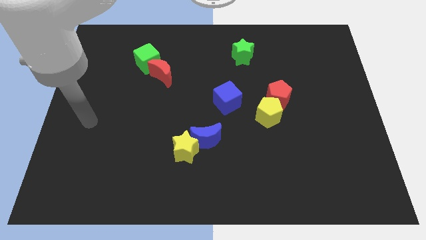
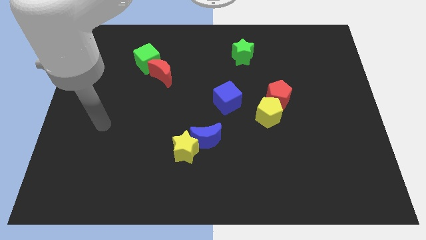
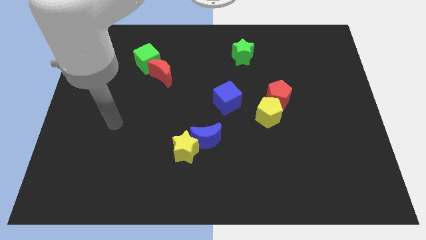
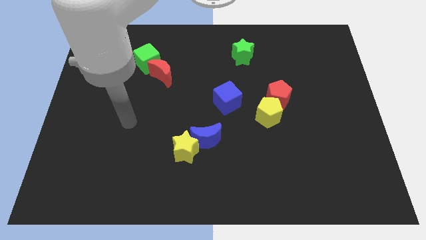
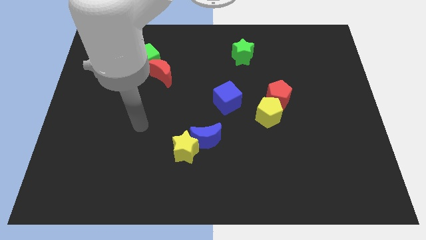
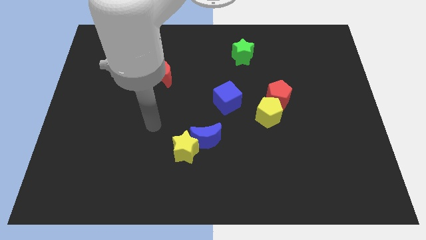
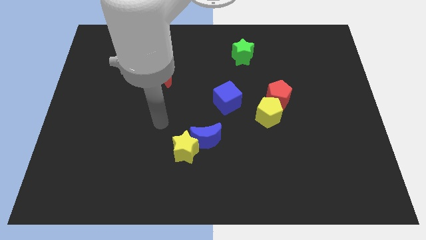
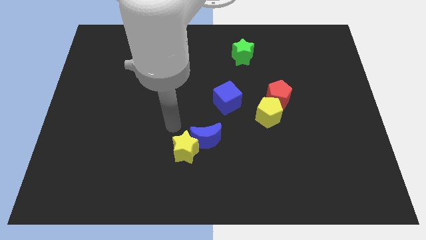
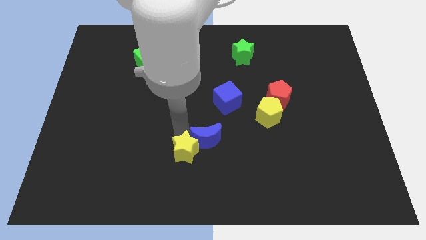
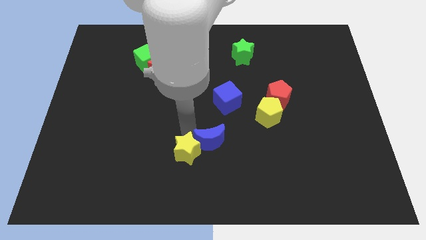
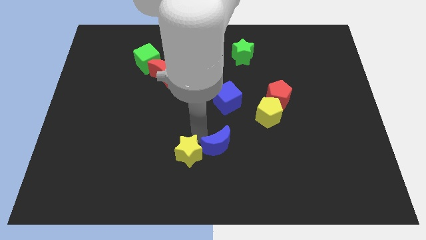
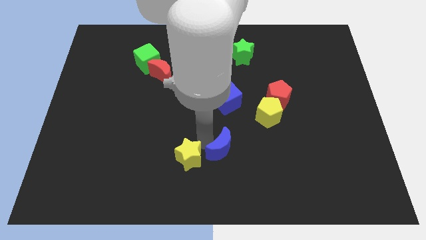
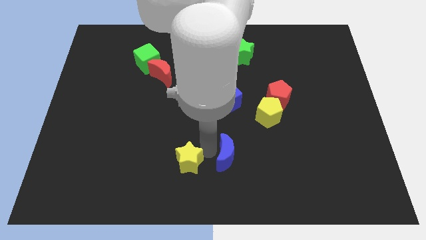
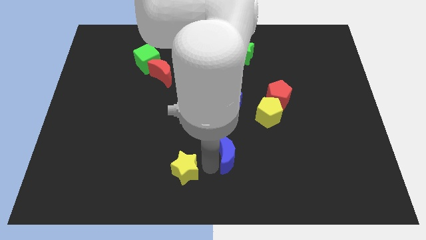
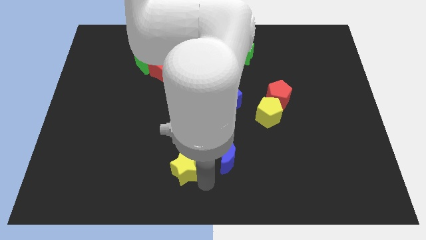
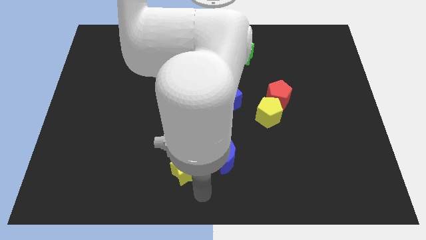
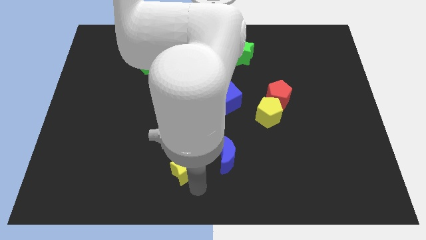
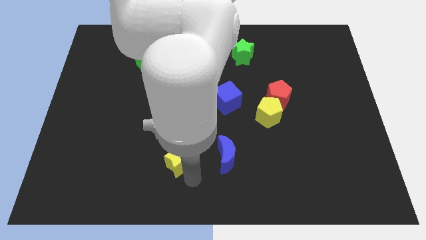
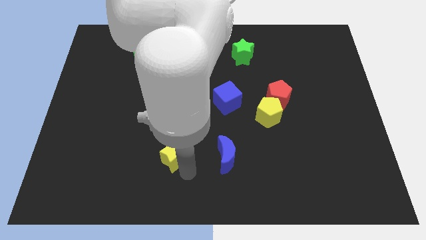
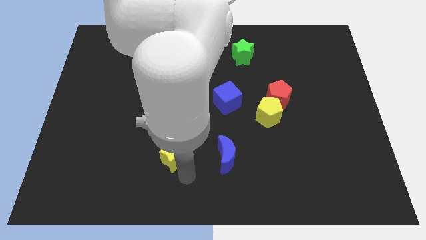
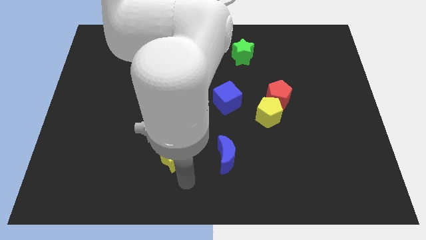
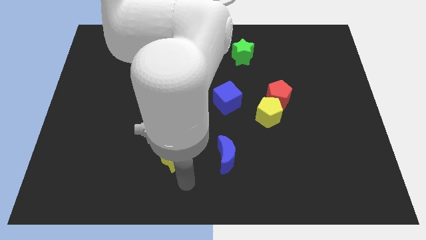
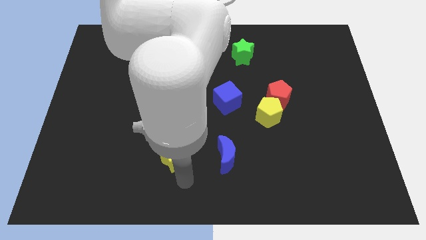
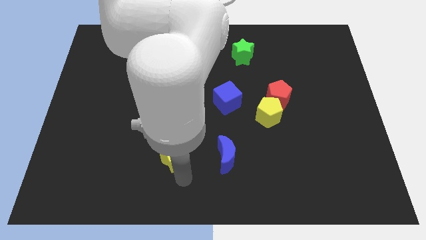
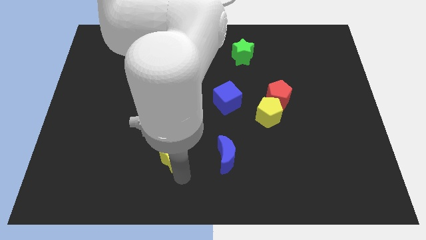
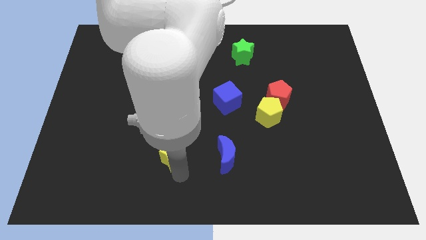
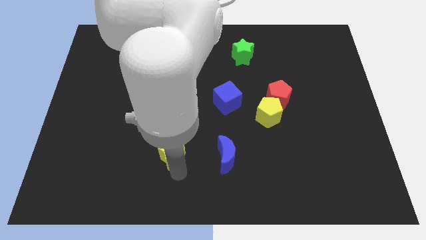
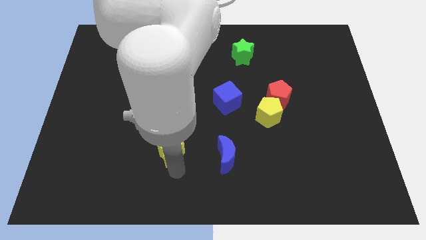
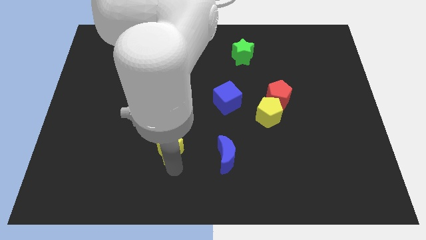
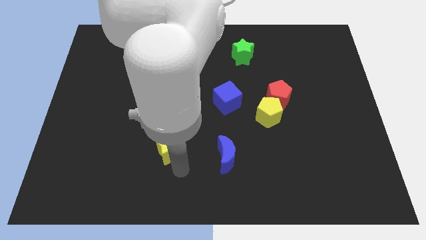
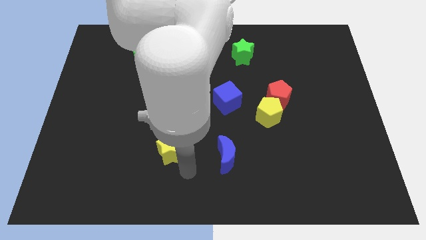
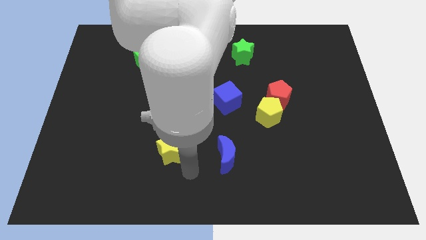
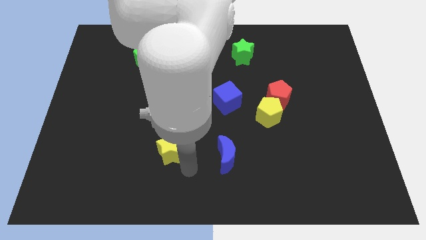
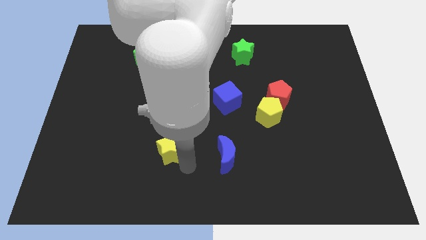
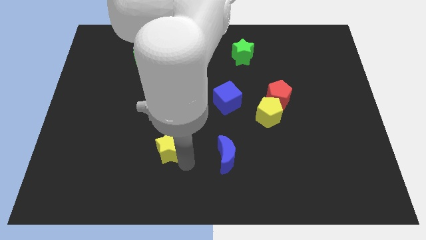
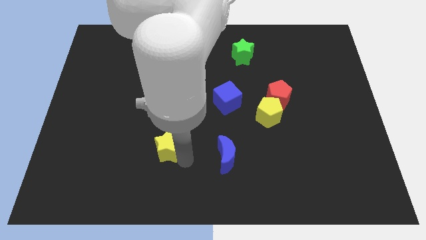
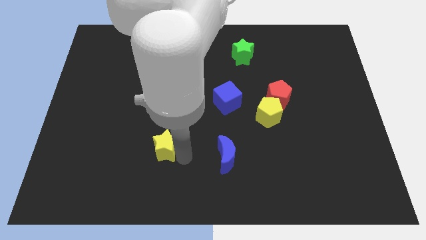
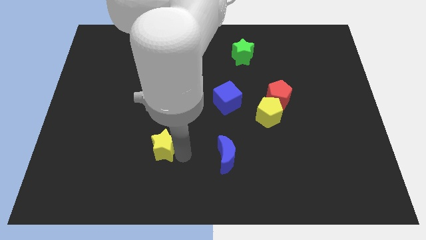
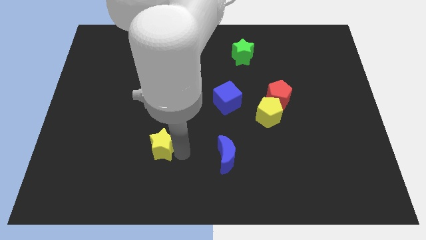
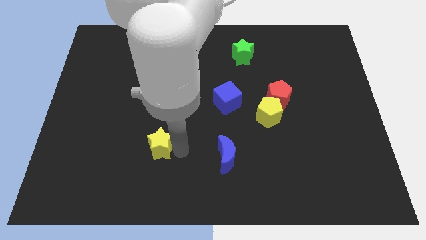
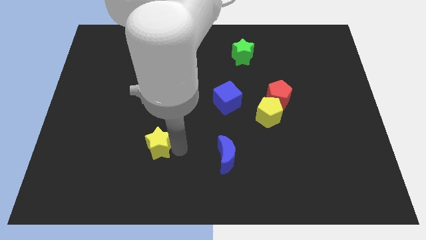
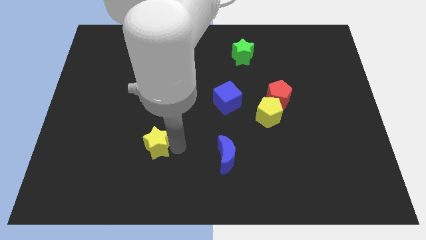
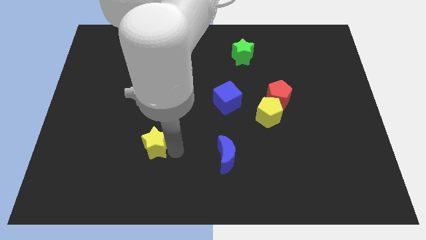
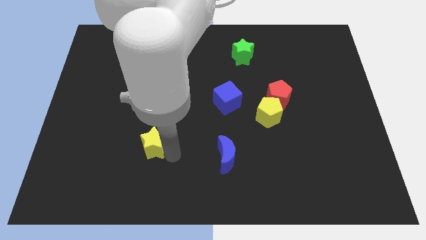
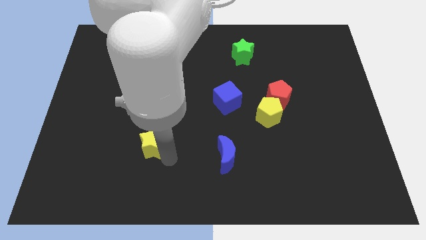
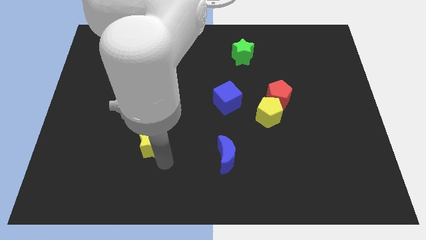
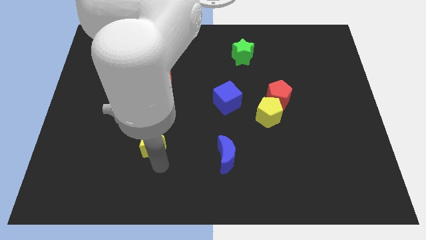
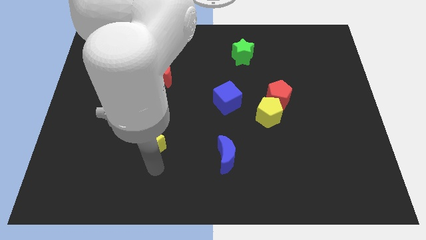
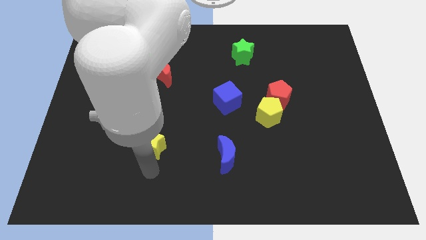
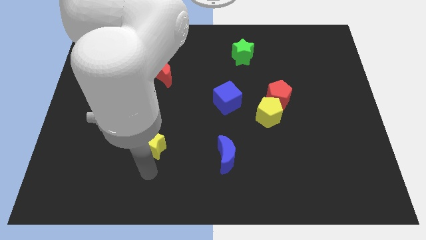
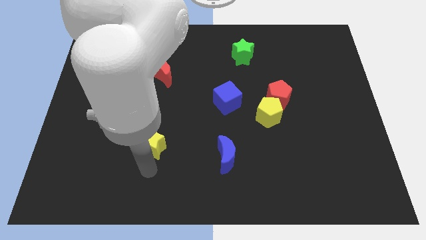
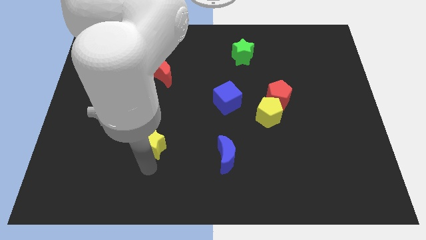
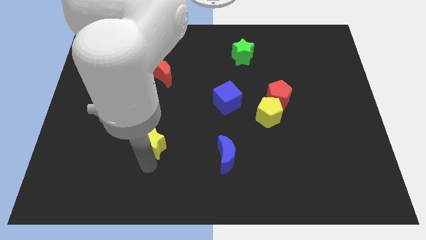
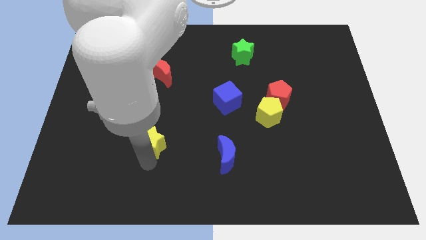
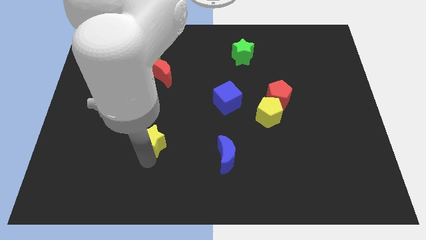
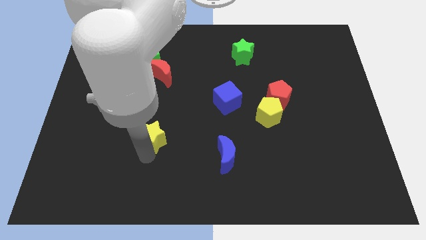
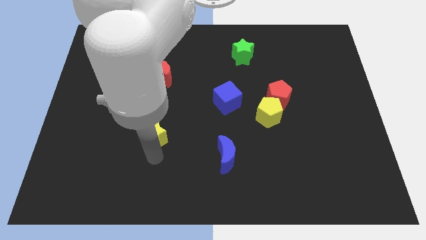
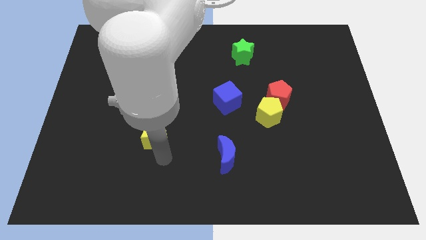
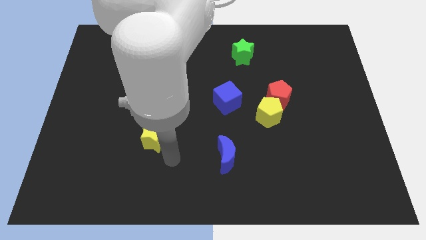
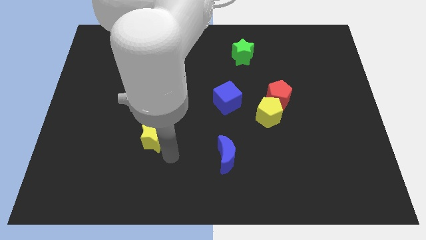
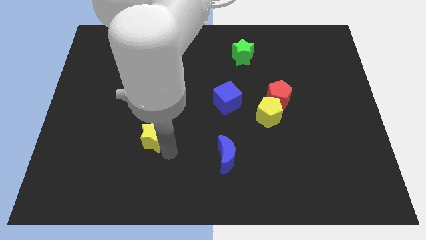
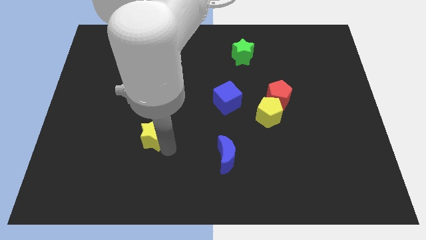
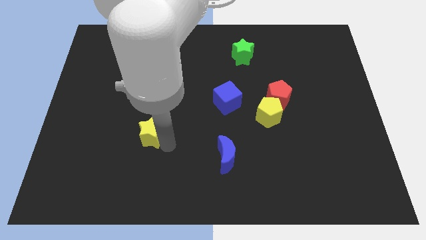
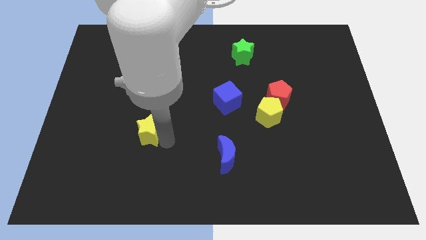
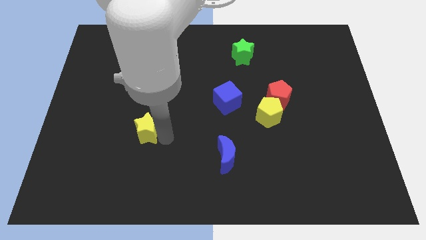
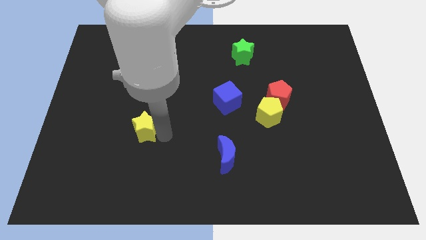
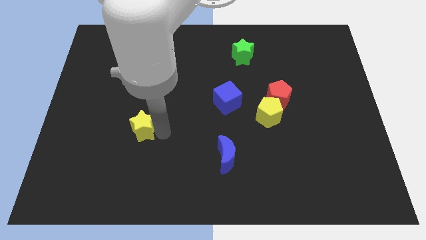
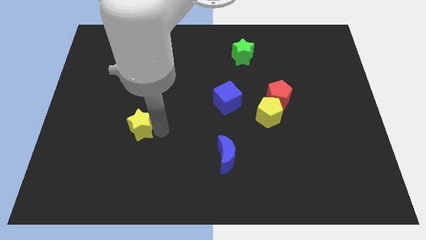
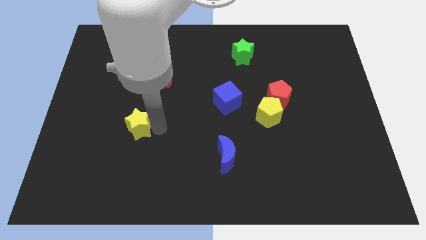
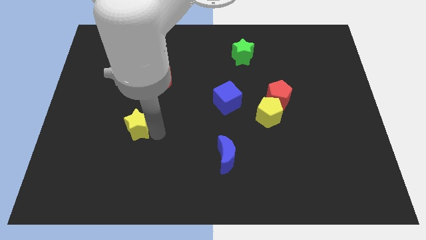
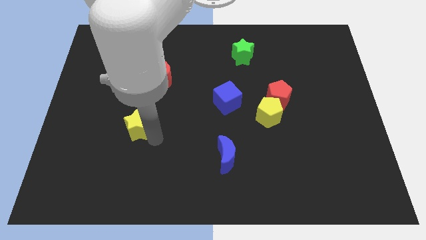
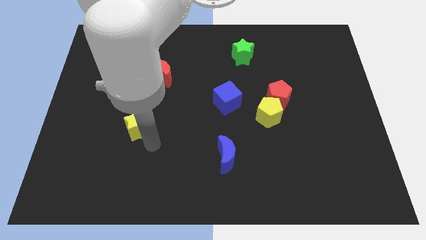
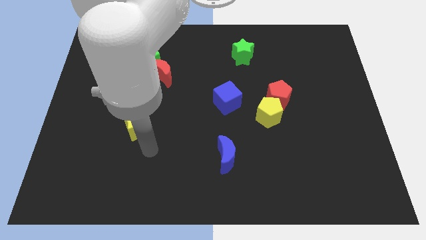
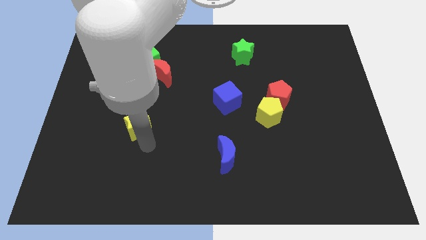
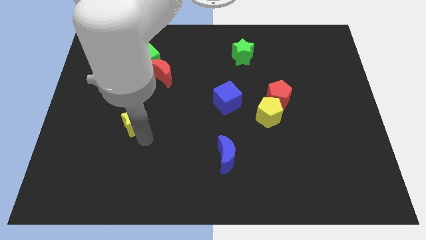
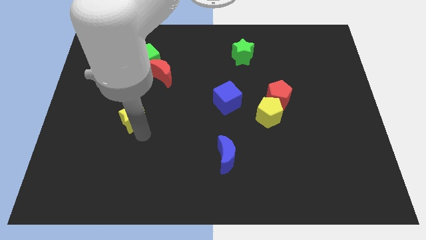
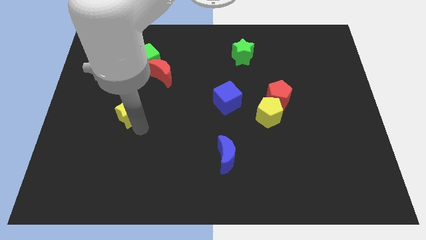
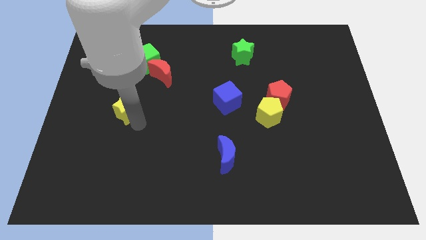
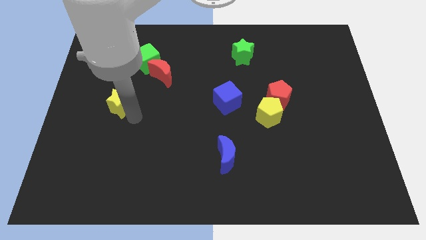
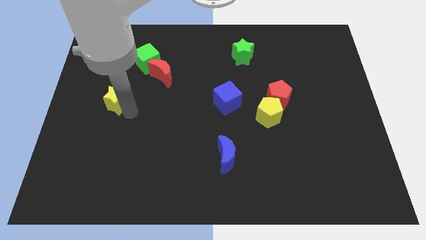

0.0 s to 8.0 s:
move the yellow star upwards and to the left

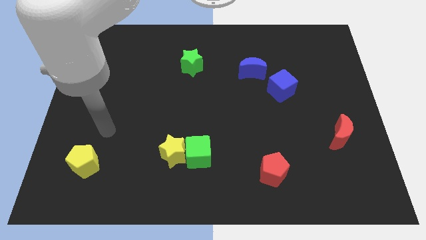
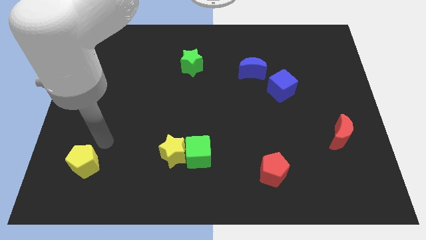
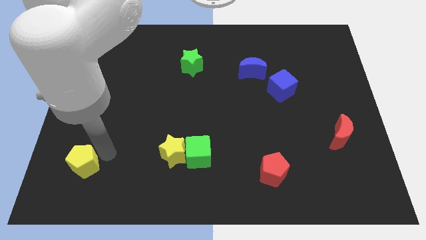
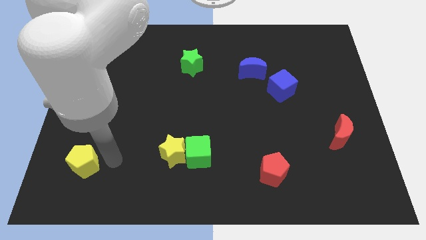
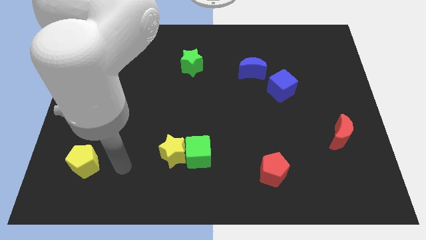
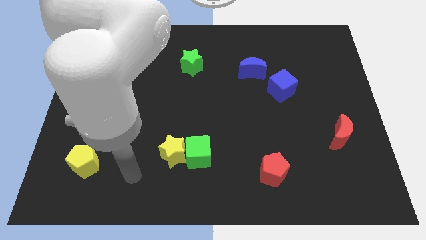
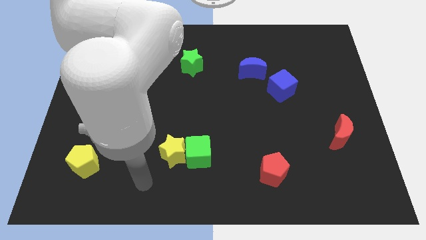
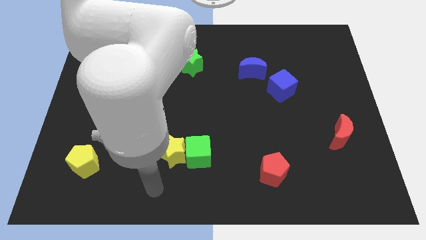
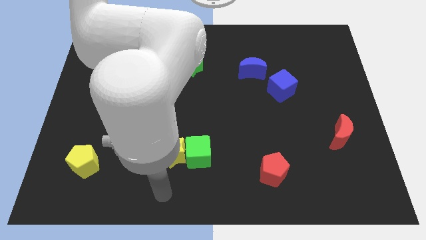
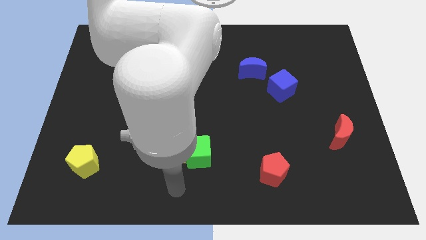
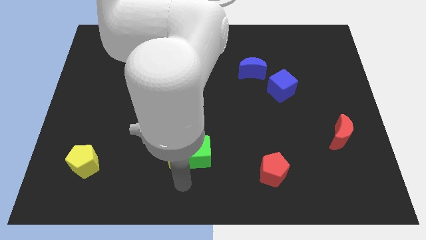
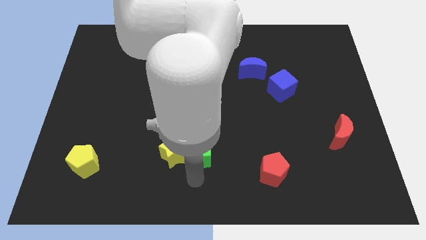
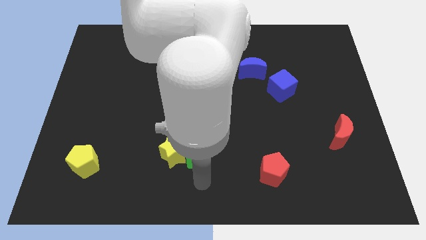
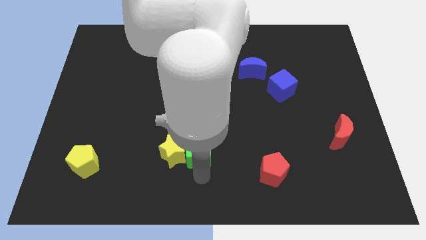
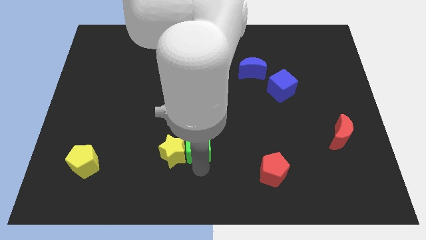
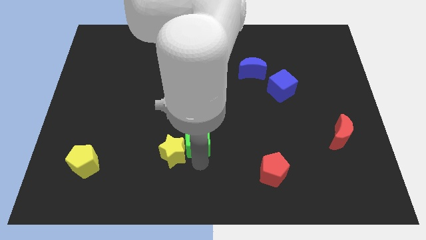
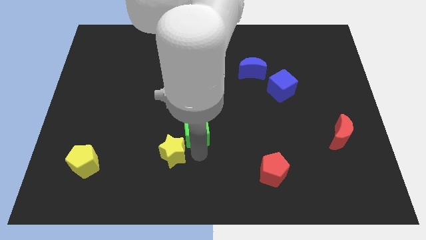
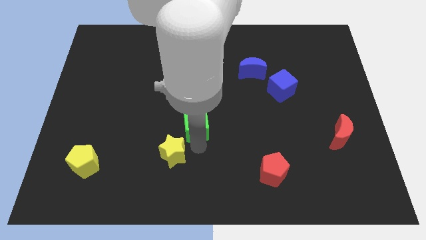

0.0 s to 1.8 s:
move the green cube up a little bit
